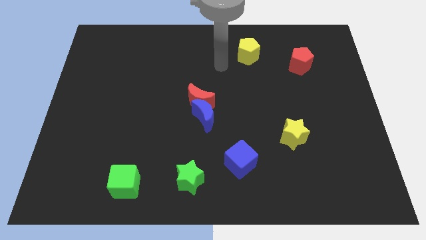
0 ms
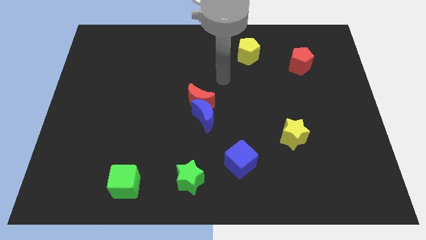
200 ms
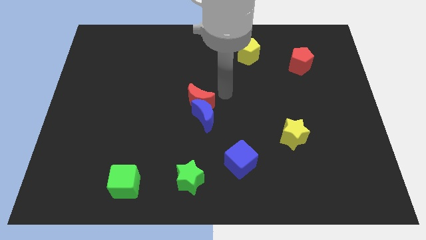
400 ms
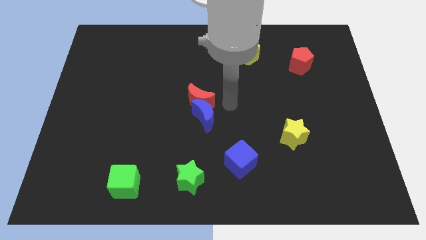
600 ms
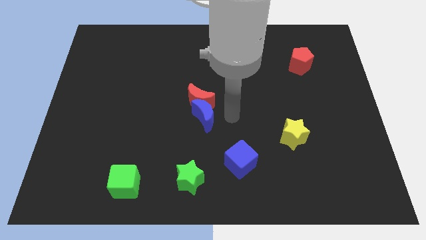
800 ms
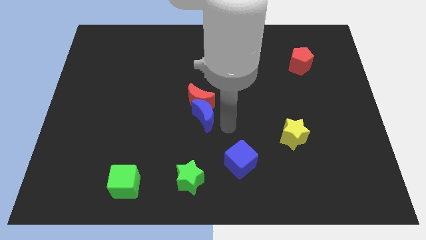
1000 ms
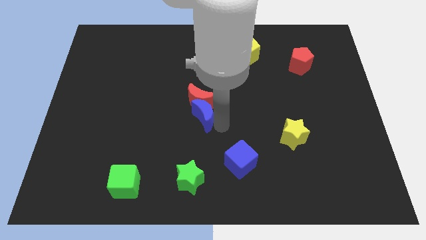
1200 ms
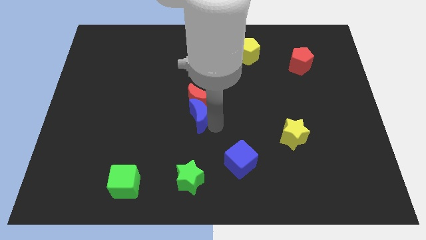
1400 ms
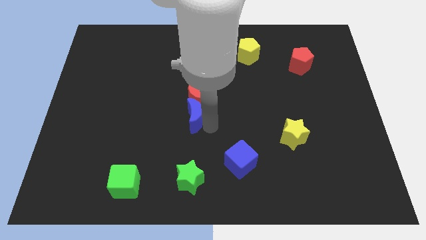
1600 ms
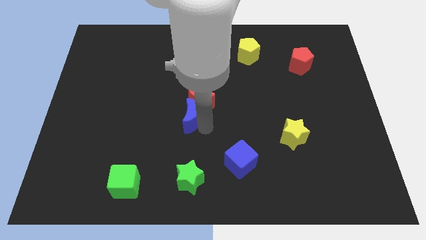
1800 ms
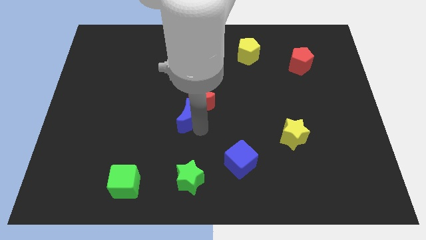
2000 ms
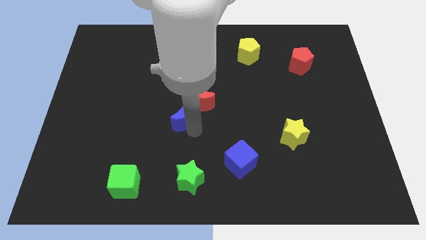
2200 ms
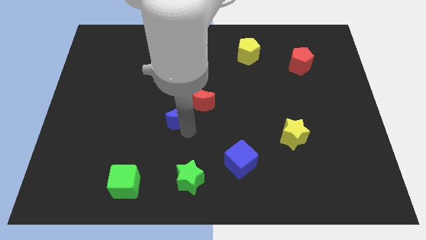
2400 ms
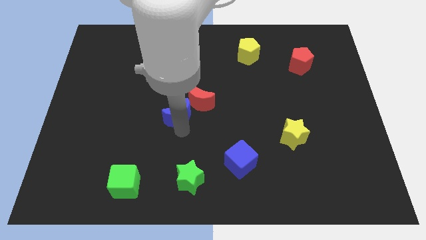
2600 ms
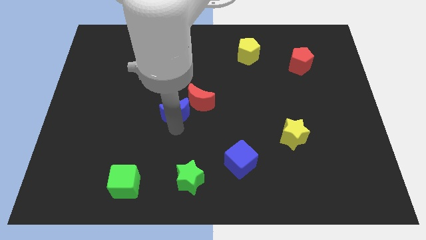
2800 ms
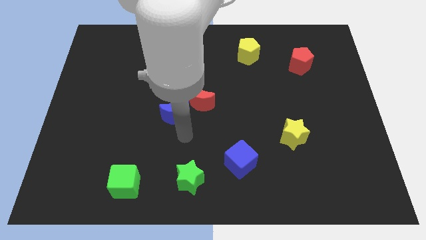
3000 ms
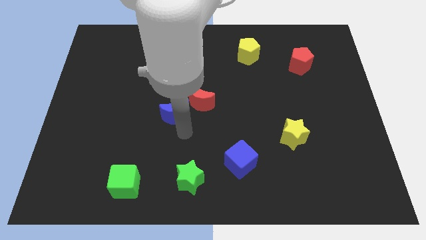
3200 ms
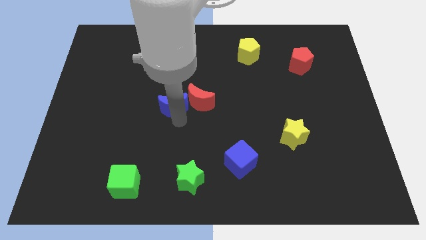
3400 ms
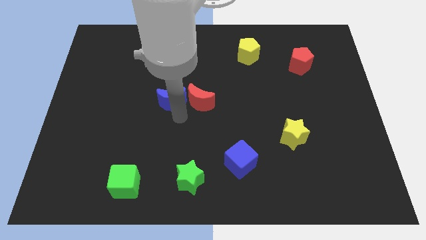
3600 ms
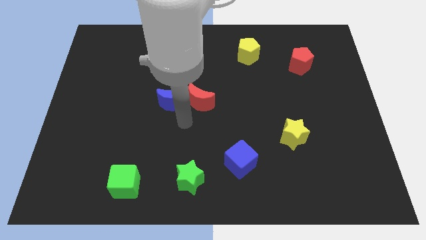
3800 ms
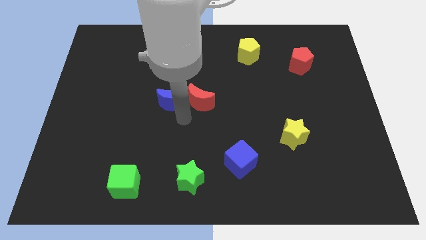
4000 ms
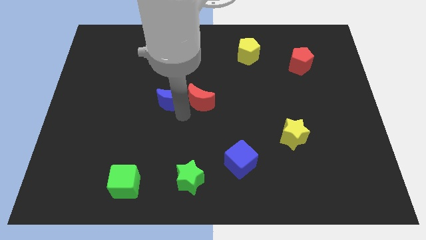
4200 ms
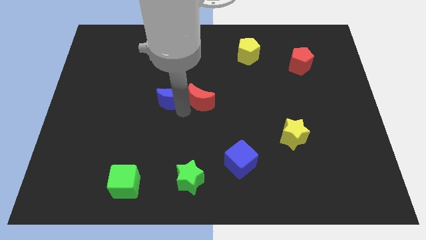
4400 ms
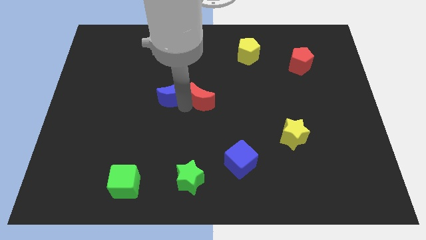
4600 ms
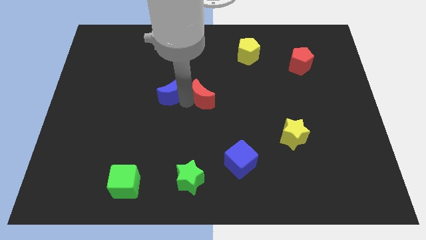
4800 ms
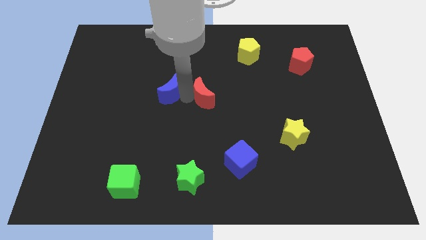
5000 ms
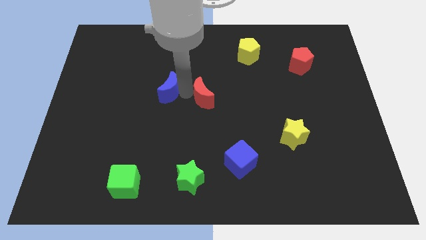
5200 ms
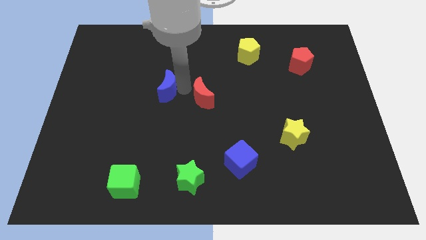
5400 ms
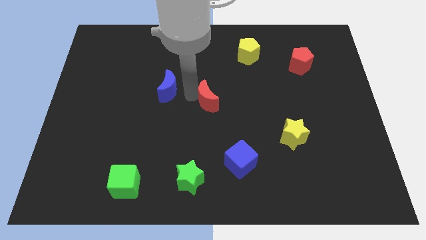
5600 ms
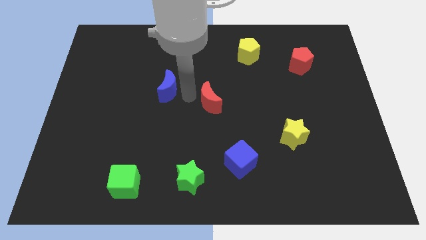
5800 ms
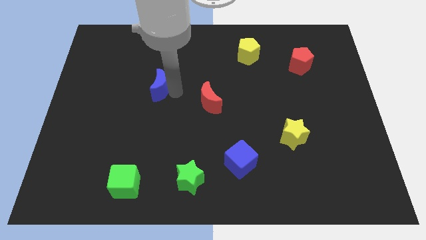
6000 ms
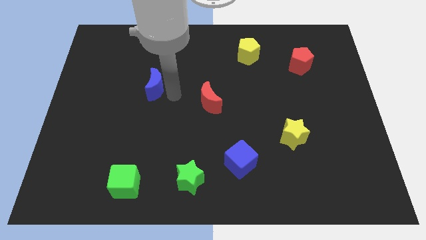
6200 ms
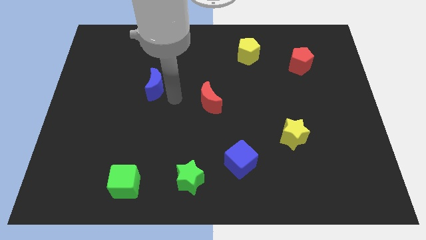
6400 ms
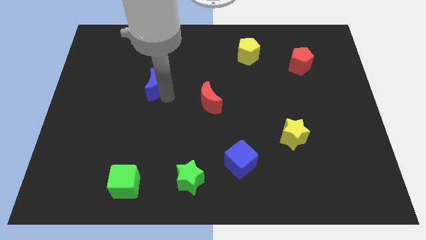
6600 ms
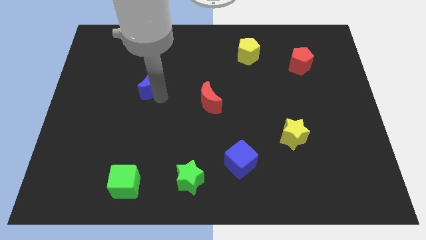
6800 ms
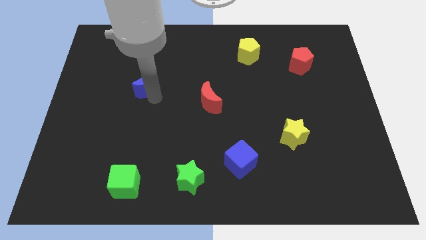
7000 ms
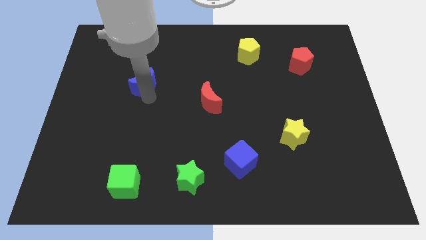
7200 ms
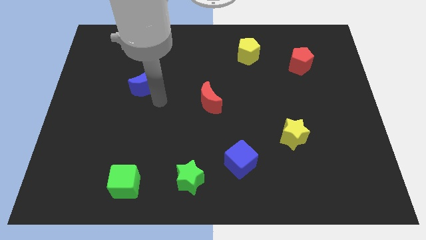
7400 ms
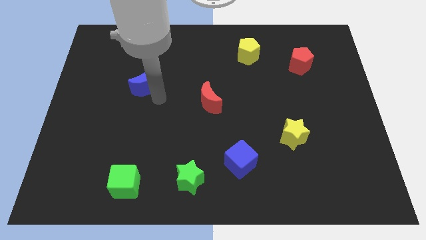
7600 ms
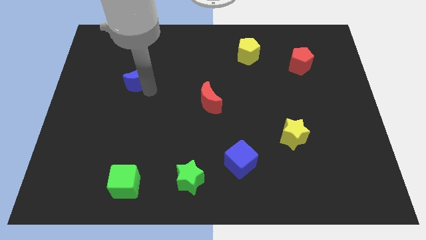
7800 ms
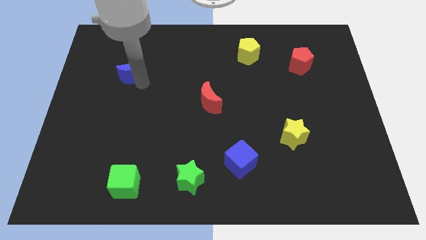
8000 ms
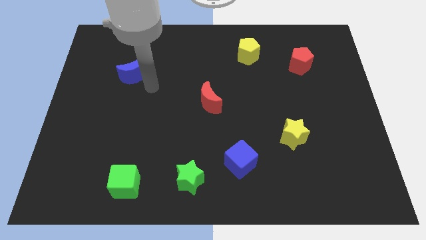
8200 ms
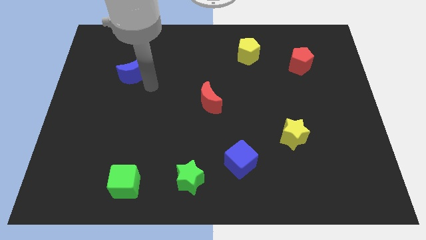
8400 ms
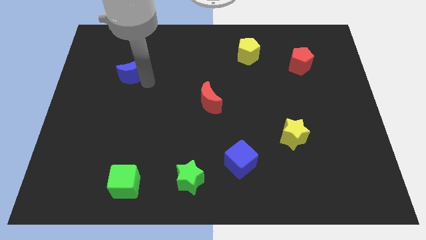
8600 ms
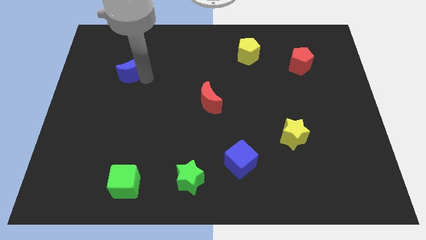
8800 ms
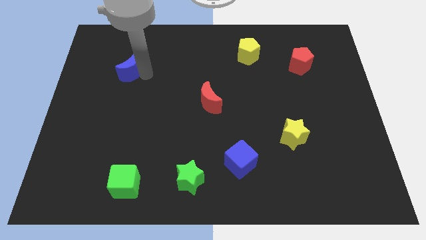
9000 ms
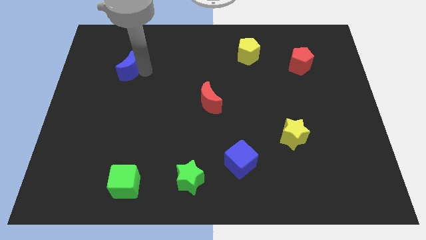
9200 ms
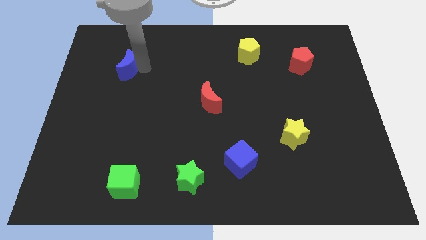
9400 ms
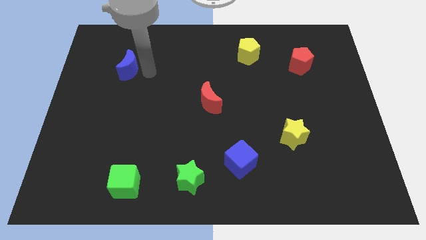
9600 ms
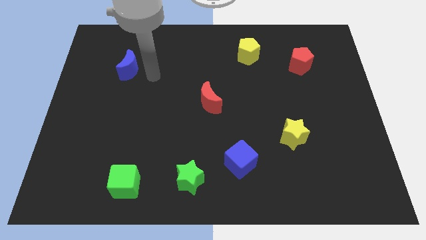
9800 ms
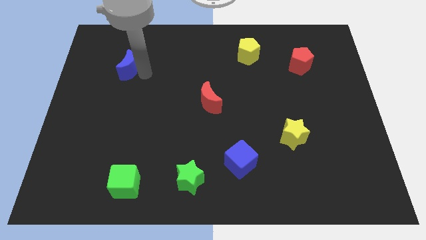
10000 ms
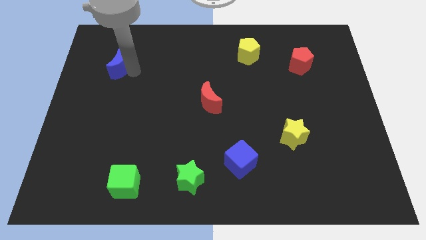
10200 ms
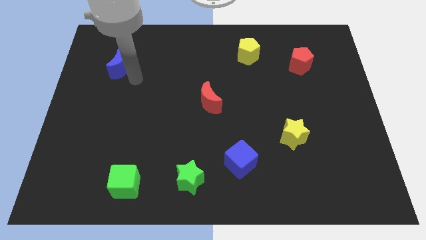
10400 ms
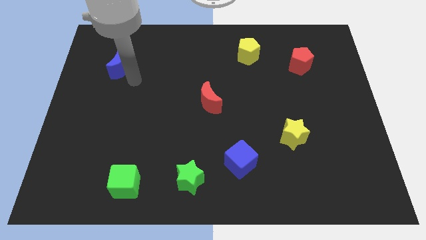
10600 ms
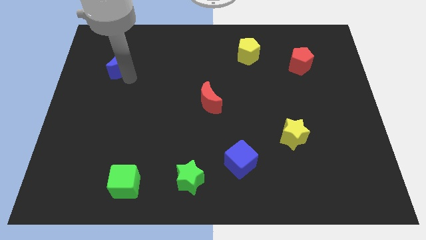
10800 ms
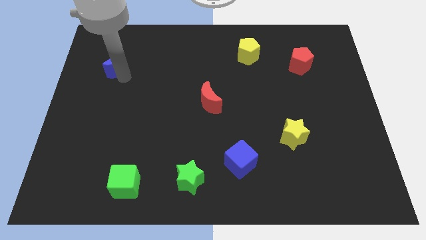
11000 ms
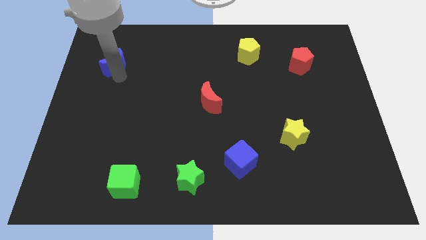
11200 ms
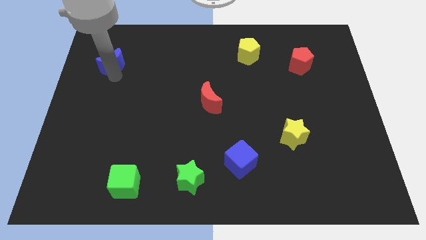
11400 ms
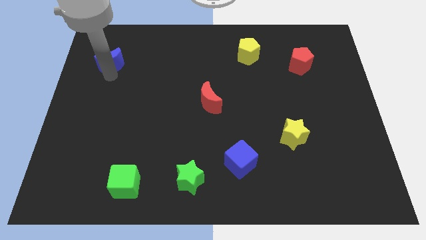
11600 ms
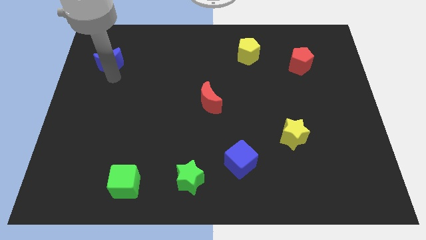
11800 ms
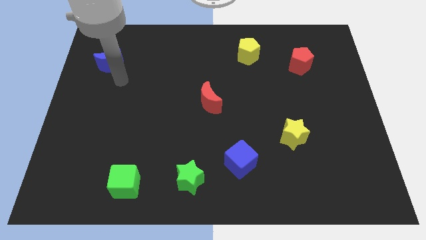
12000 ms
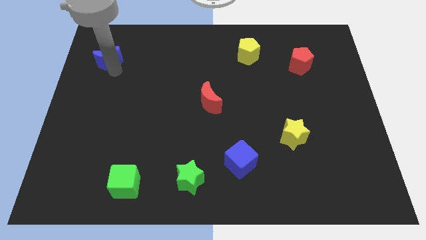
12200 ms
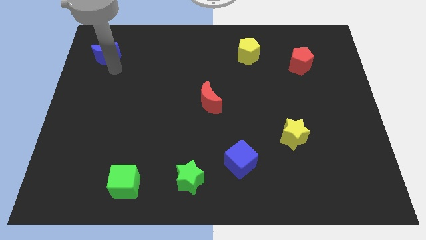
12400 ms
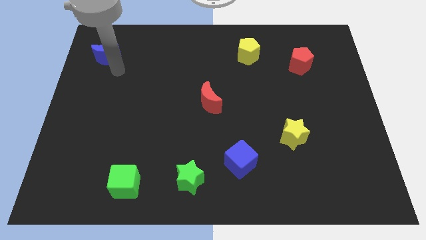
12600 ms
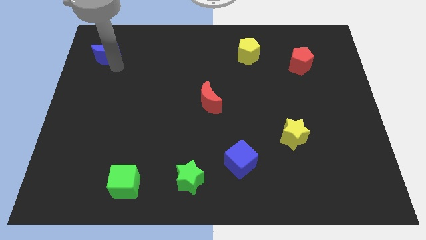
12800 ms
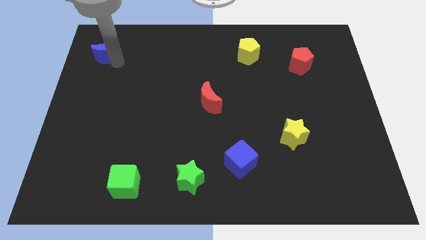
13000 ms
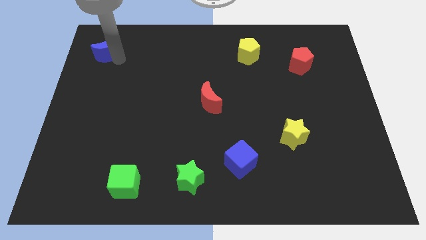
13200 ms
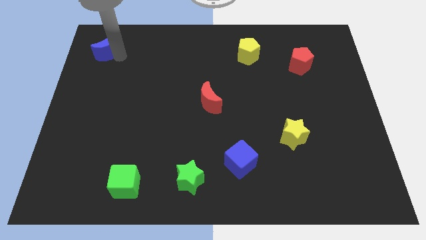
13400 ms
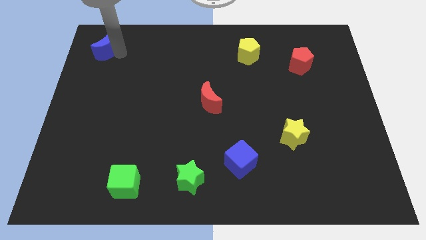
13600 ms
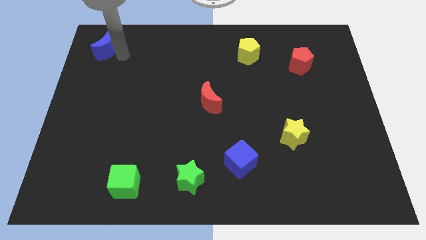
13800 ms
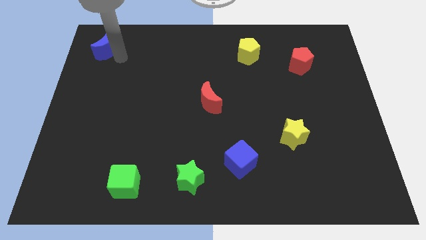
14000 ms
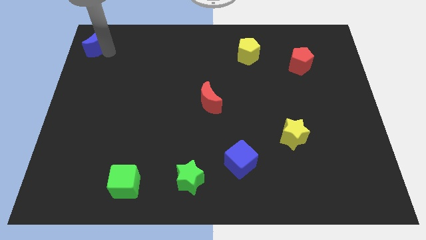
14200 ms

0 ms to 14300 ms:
put the blue moon to the upper left corner

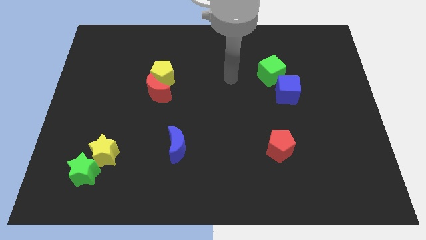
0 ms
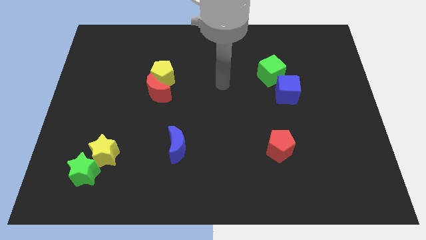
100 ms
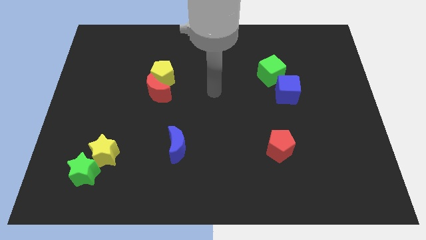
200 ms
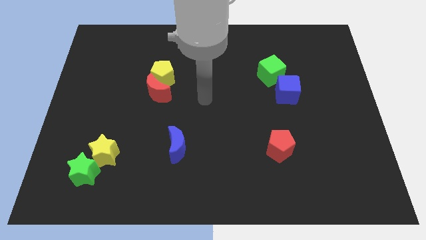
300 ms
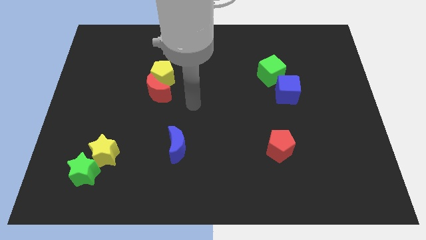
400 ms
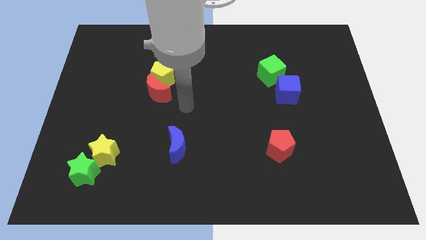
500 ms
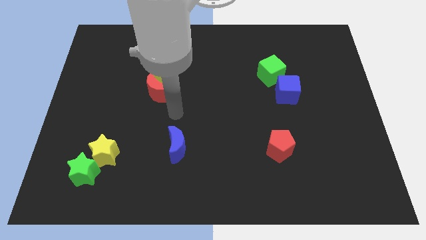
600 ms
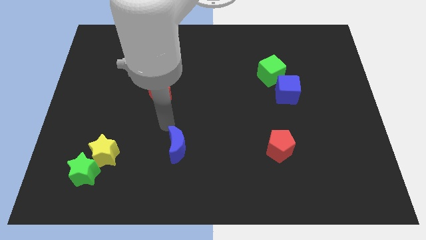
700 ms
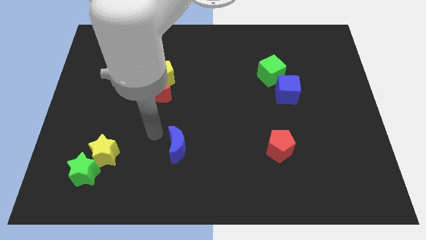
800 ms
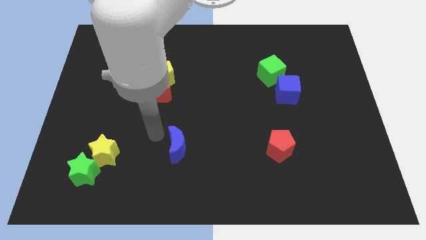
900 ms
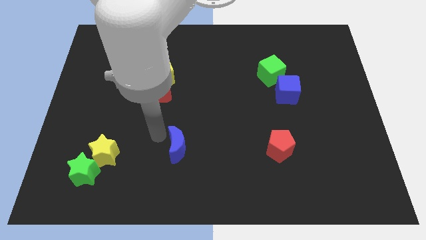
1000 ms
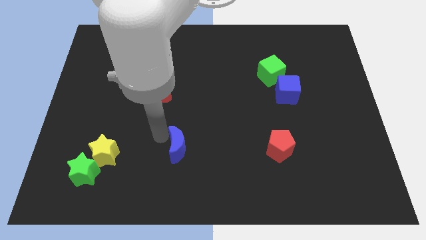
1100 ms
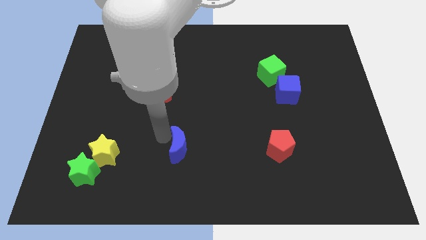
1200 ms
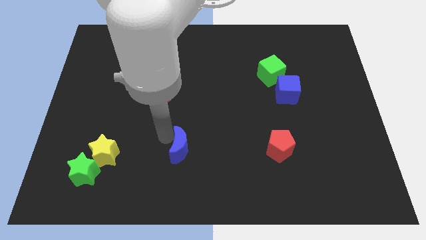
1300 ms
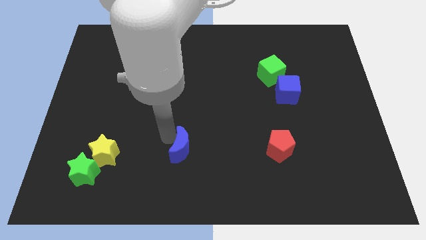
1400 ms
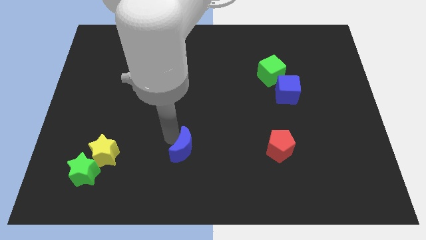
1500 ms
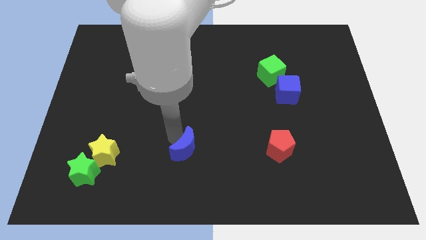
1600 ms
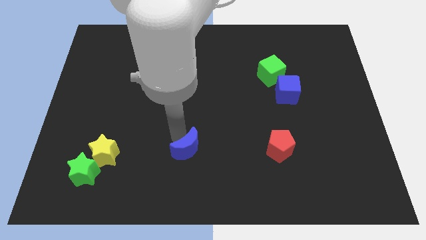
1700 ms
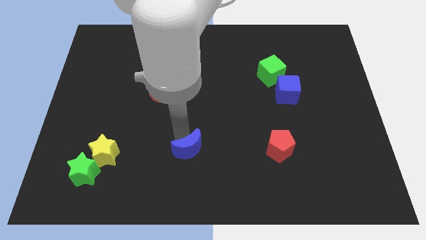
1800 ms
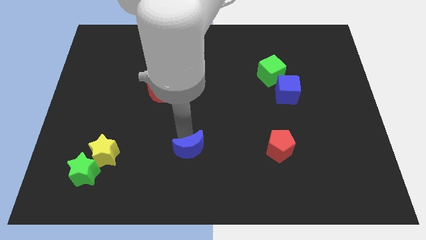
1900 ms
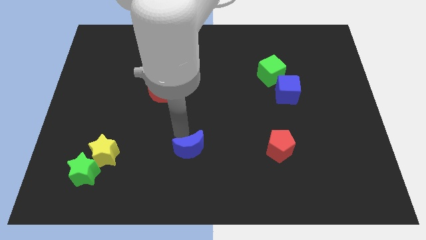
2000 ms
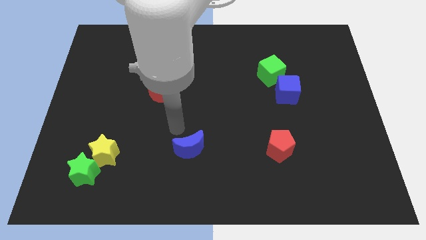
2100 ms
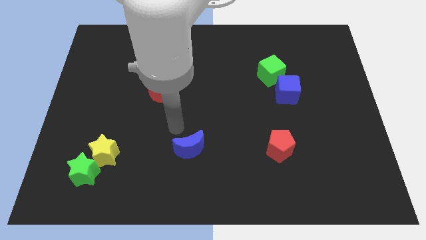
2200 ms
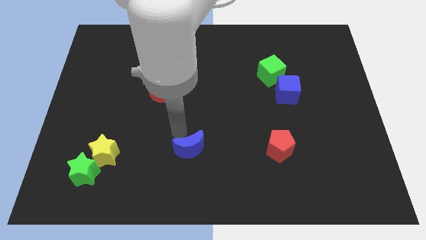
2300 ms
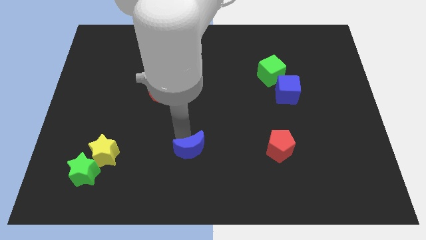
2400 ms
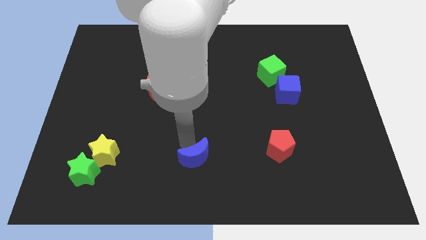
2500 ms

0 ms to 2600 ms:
move the blue moon to the bottom
